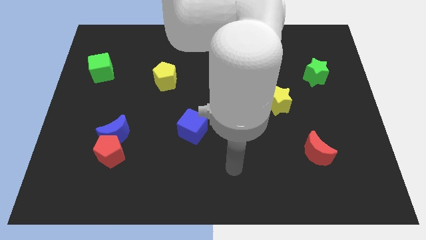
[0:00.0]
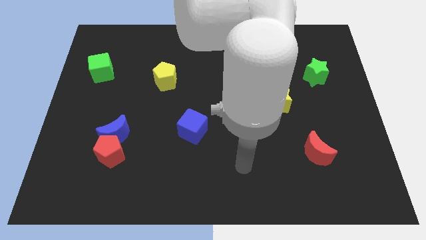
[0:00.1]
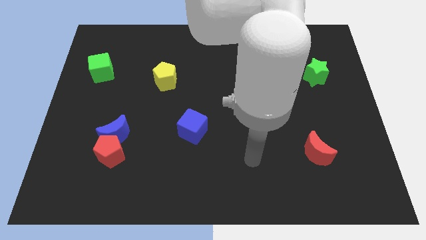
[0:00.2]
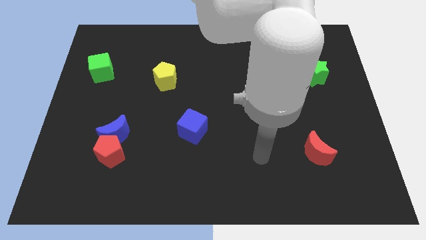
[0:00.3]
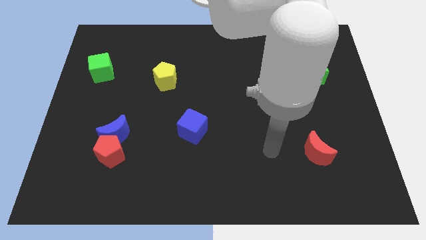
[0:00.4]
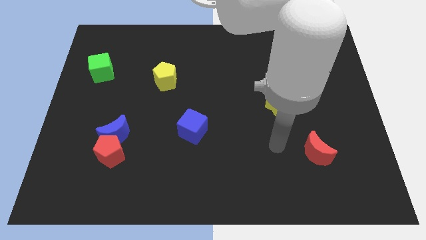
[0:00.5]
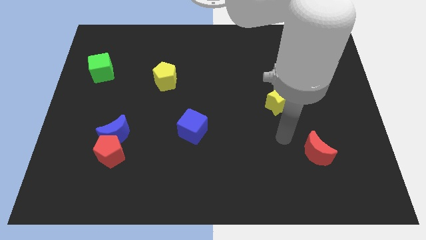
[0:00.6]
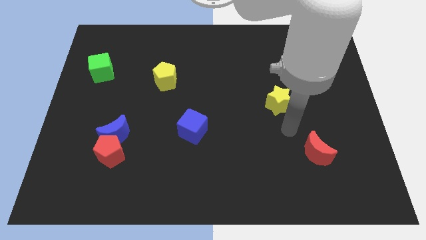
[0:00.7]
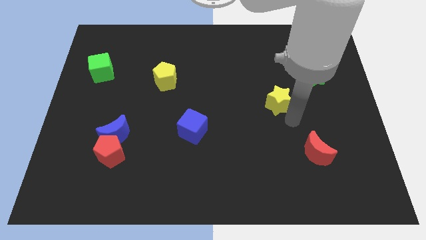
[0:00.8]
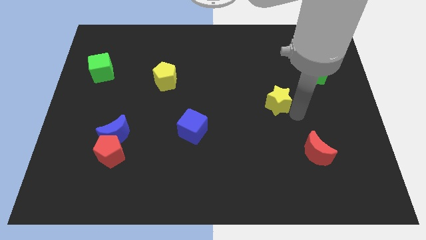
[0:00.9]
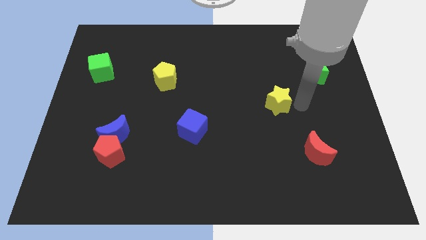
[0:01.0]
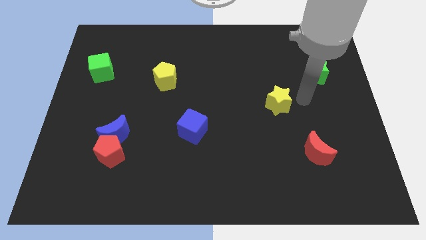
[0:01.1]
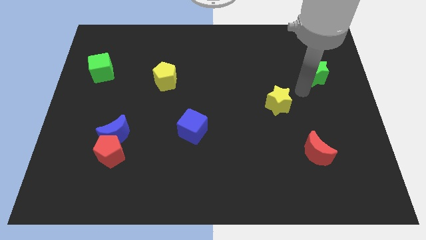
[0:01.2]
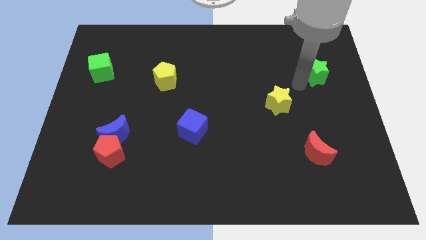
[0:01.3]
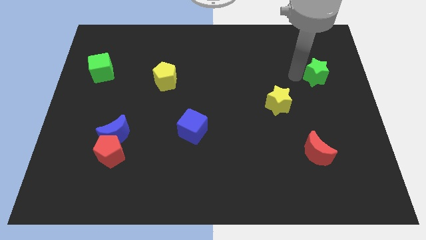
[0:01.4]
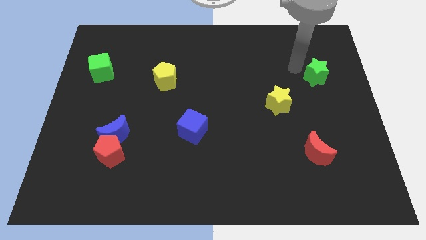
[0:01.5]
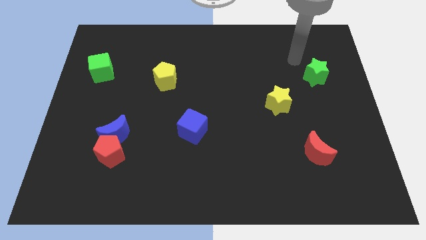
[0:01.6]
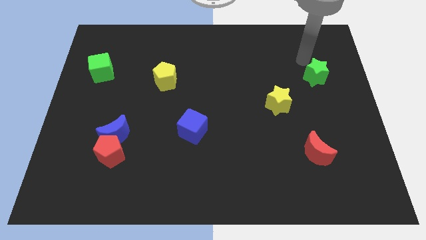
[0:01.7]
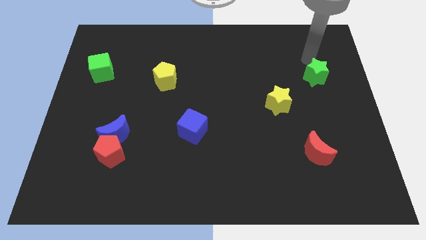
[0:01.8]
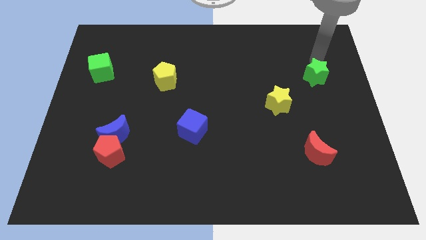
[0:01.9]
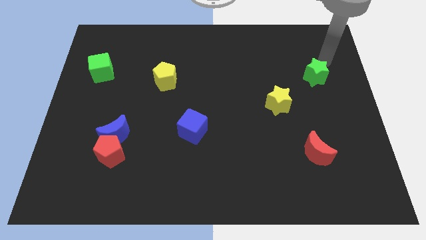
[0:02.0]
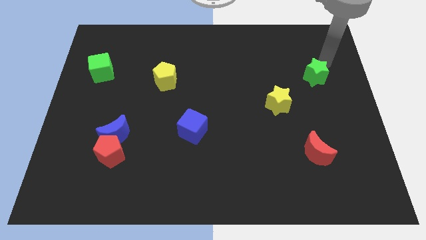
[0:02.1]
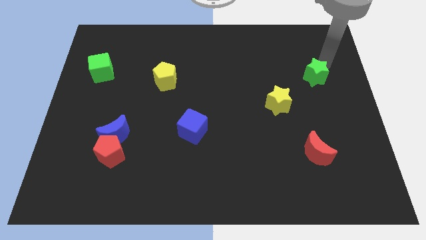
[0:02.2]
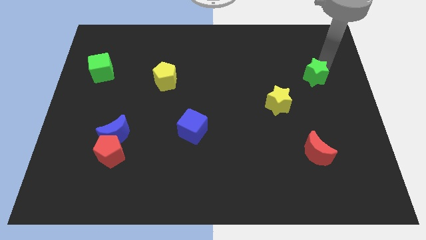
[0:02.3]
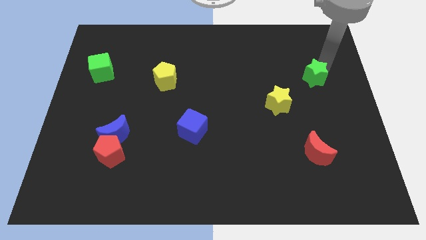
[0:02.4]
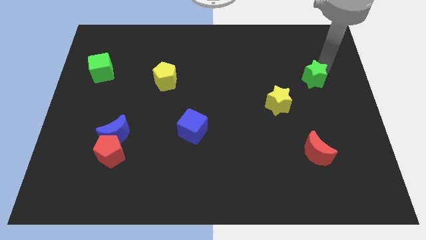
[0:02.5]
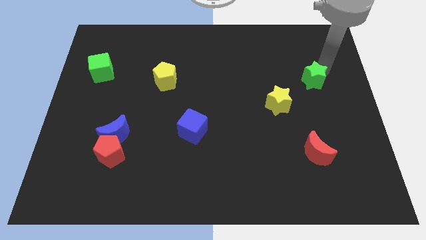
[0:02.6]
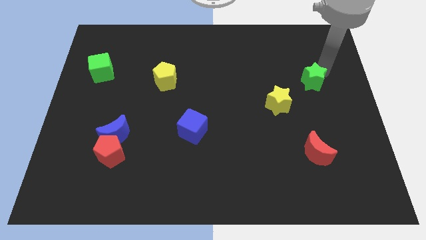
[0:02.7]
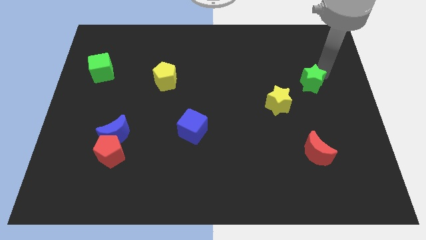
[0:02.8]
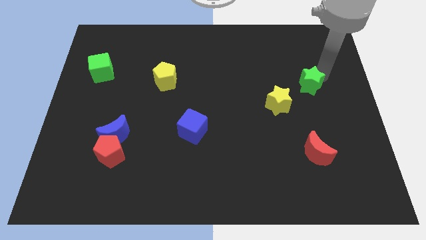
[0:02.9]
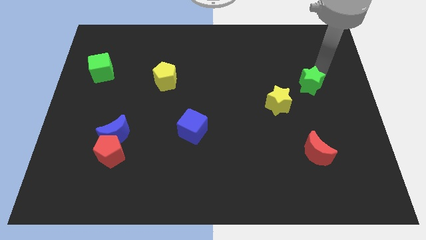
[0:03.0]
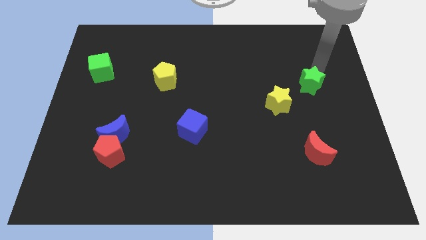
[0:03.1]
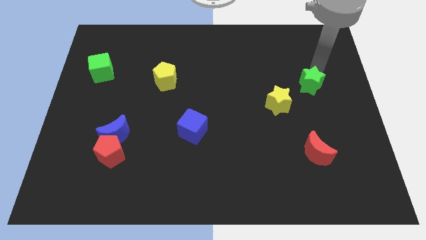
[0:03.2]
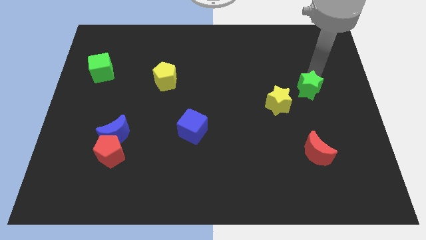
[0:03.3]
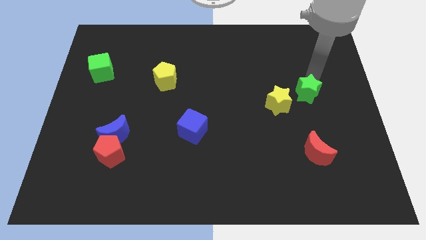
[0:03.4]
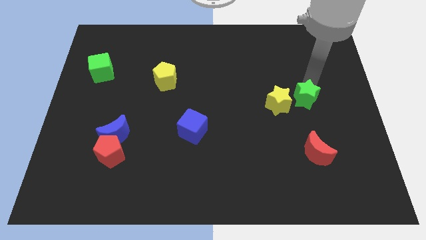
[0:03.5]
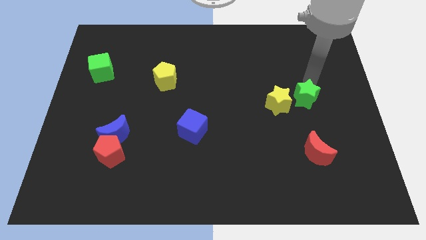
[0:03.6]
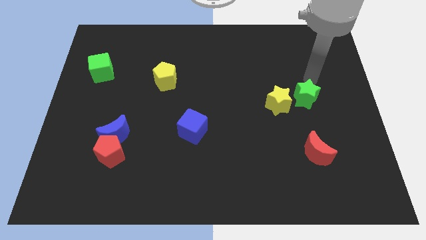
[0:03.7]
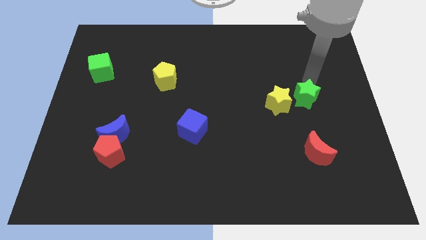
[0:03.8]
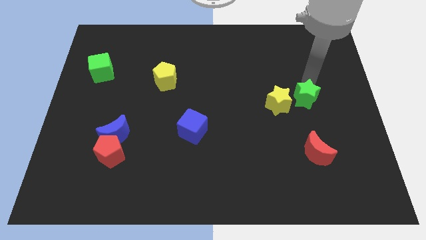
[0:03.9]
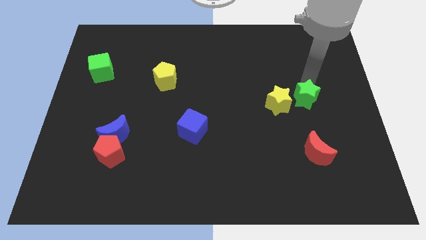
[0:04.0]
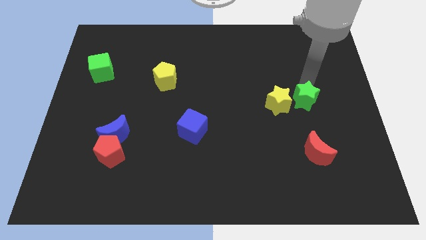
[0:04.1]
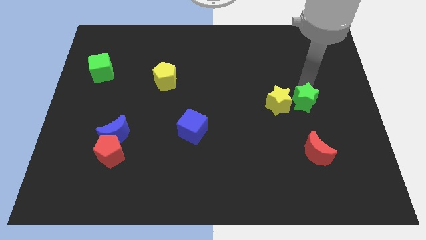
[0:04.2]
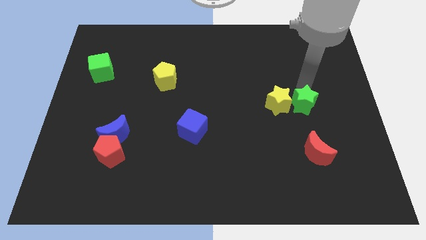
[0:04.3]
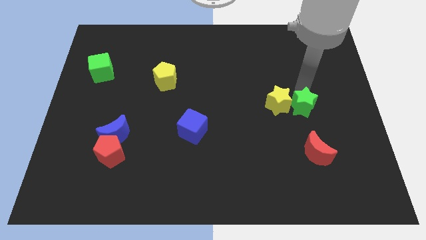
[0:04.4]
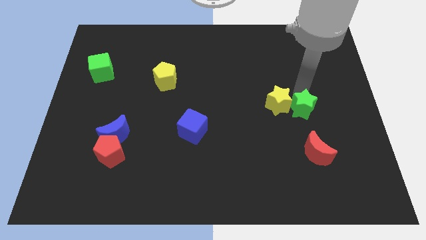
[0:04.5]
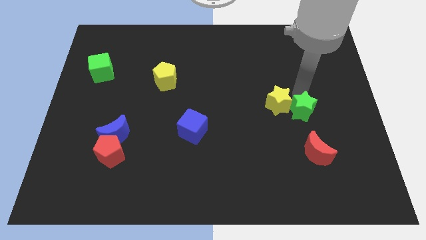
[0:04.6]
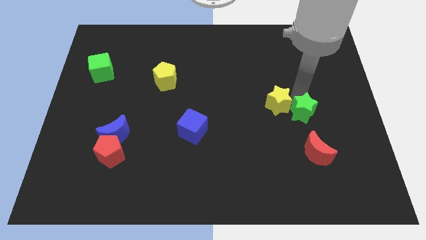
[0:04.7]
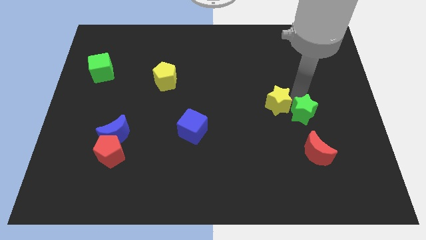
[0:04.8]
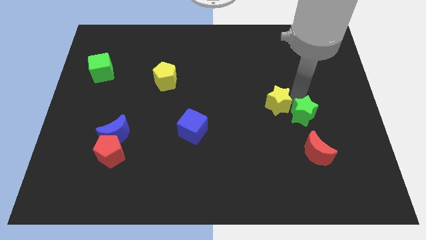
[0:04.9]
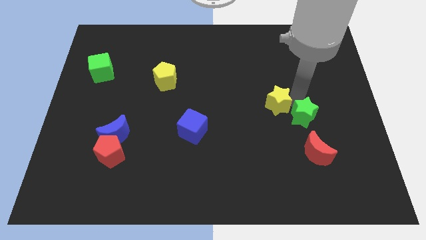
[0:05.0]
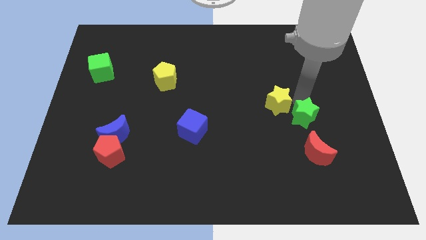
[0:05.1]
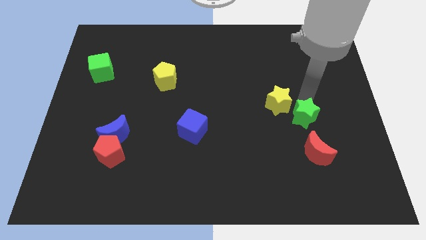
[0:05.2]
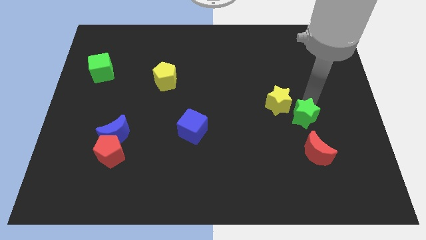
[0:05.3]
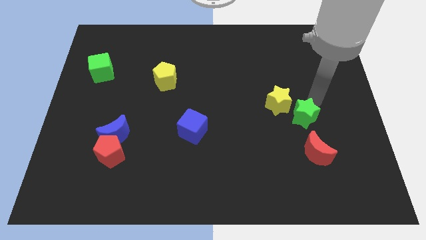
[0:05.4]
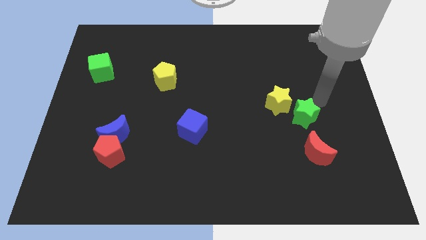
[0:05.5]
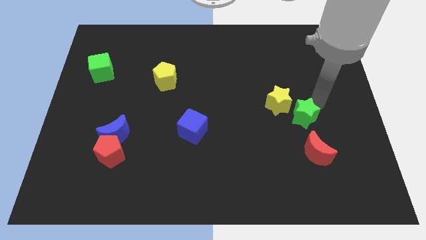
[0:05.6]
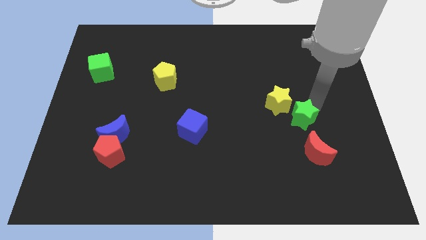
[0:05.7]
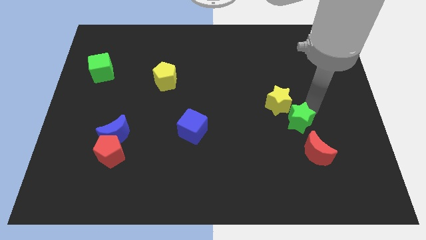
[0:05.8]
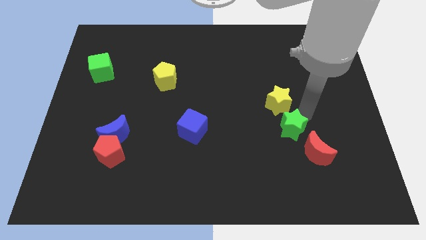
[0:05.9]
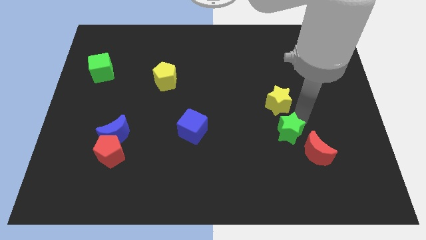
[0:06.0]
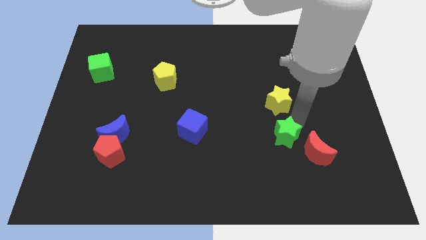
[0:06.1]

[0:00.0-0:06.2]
slide the green star left of the red moon

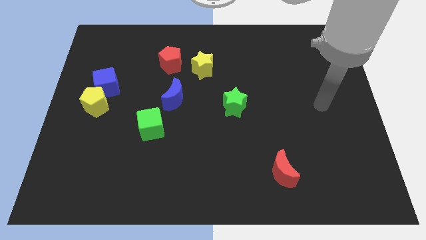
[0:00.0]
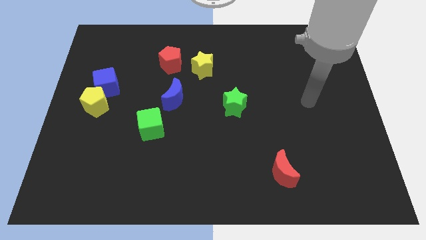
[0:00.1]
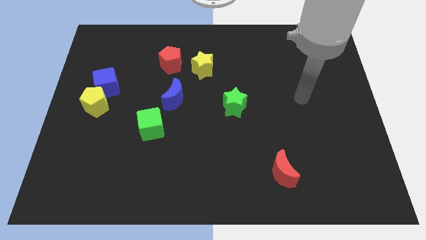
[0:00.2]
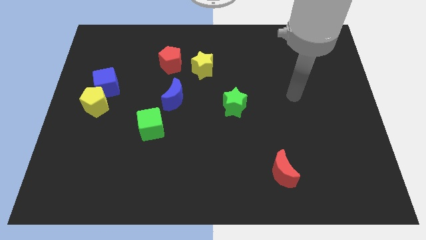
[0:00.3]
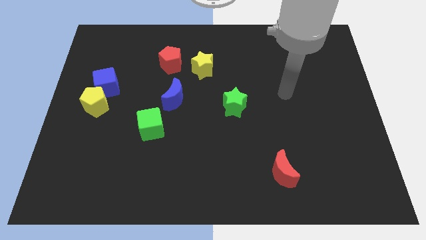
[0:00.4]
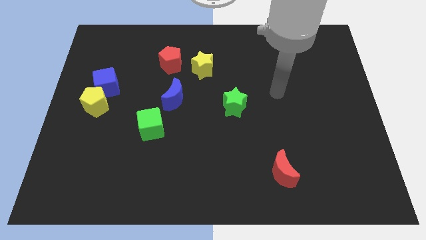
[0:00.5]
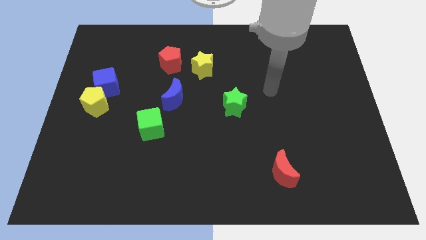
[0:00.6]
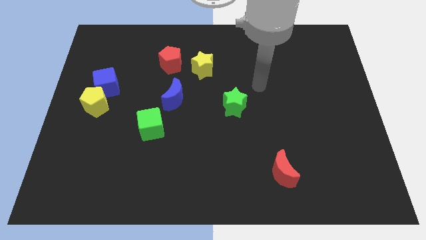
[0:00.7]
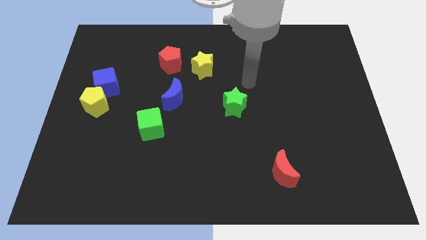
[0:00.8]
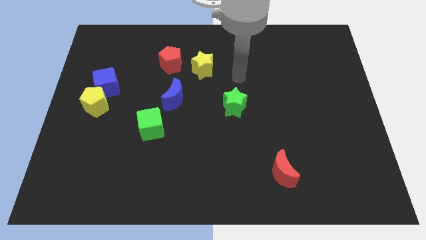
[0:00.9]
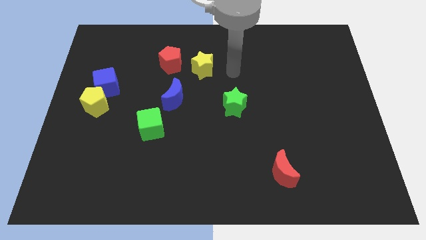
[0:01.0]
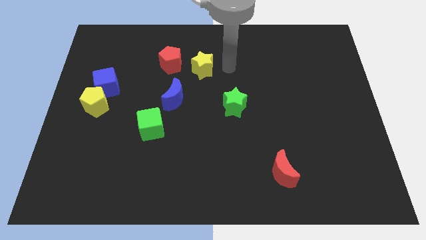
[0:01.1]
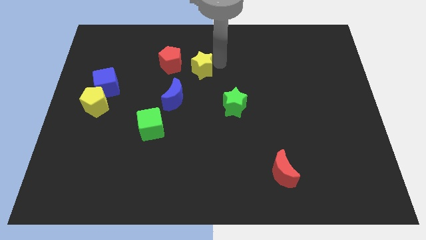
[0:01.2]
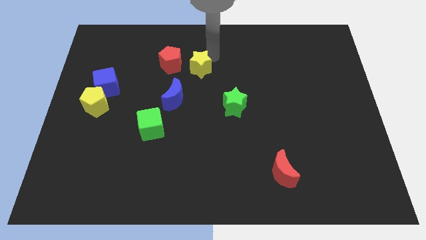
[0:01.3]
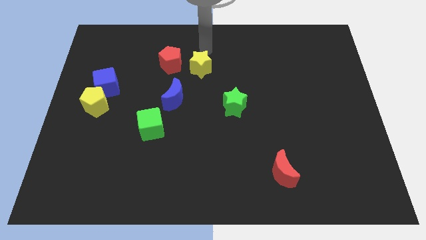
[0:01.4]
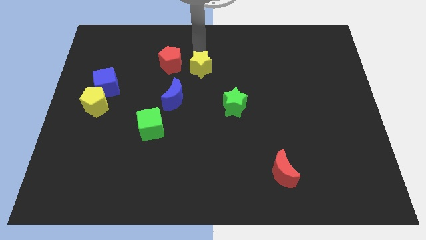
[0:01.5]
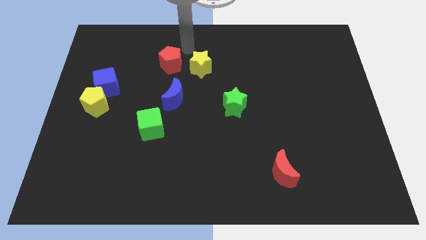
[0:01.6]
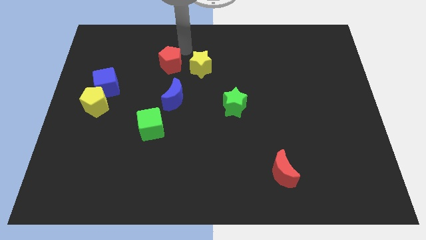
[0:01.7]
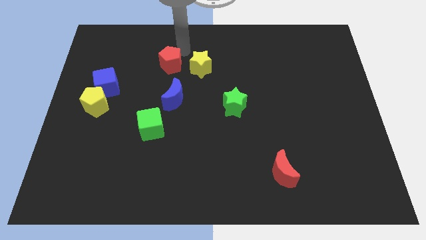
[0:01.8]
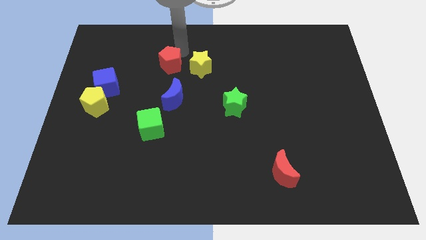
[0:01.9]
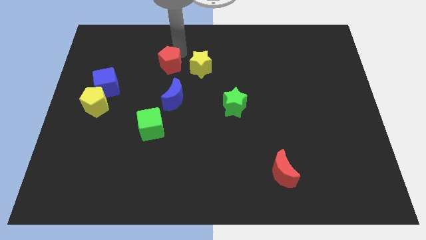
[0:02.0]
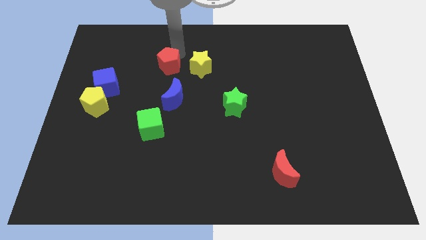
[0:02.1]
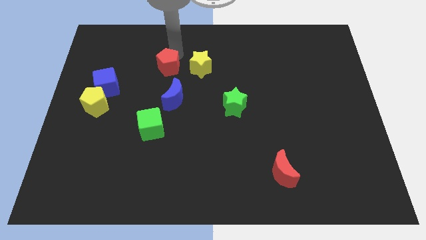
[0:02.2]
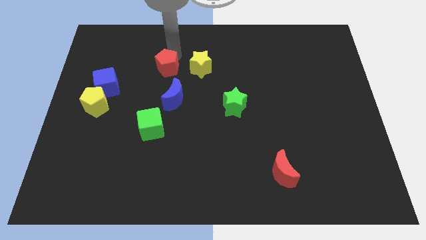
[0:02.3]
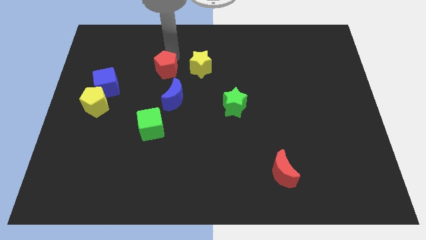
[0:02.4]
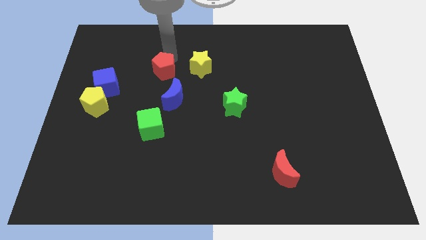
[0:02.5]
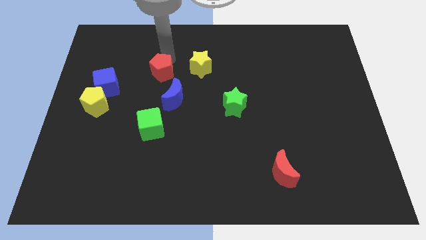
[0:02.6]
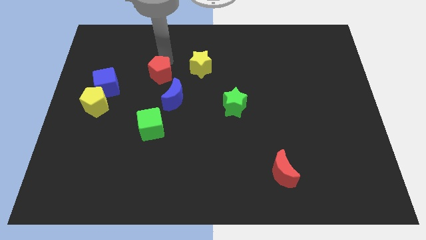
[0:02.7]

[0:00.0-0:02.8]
move the red pentagon to the right side of the blue cube
